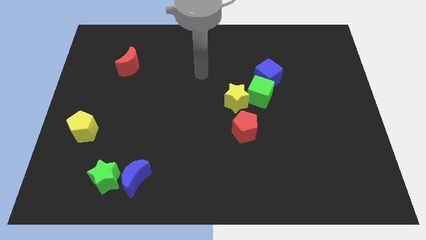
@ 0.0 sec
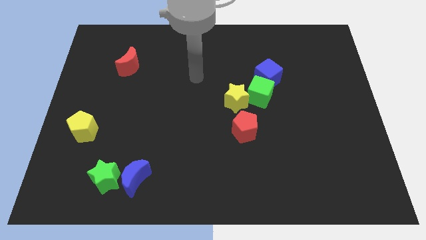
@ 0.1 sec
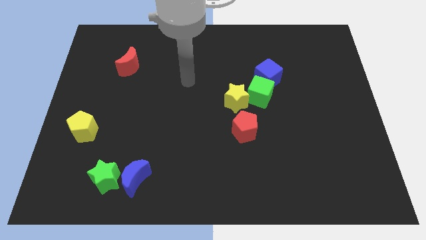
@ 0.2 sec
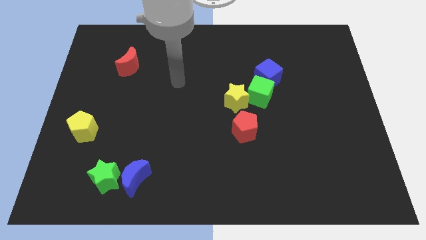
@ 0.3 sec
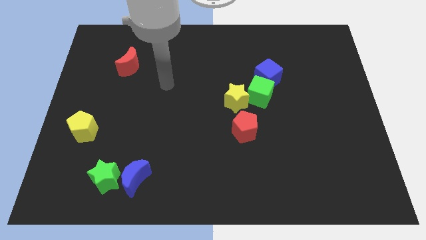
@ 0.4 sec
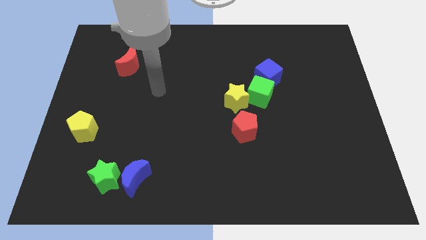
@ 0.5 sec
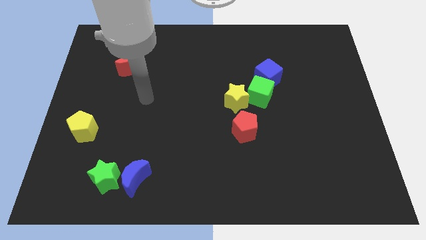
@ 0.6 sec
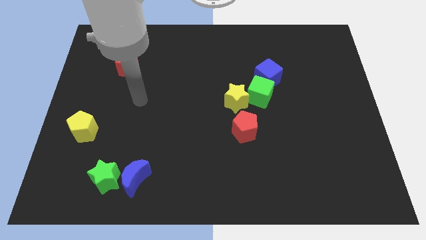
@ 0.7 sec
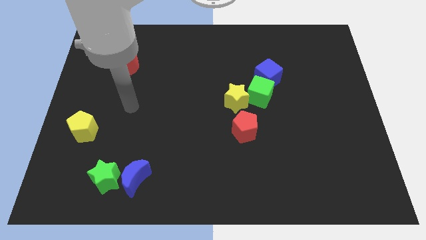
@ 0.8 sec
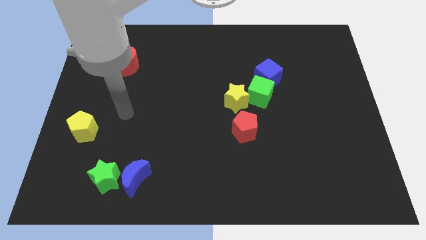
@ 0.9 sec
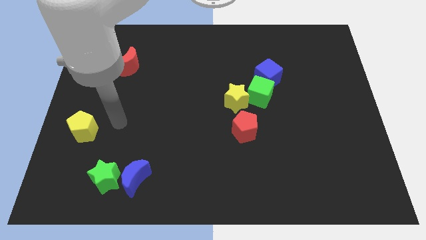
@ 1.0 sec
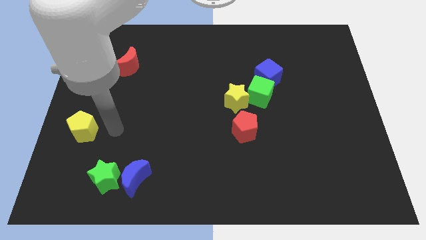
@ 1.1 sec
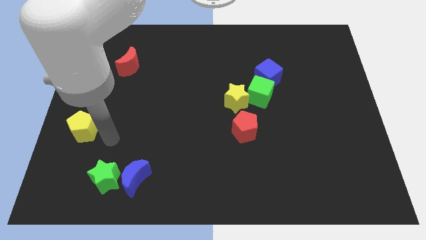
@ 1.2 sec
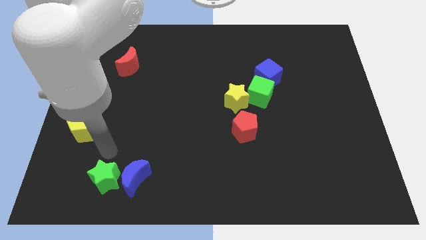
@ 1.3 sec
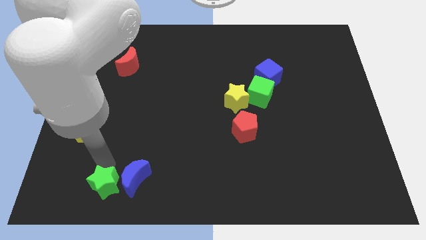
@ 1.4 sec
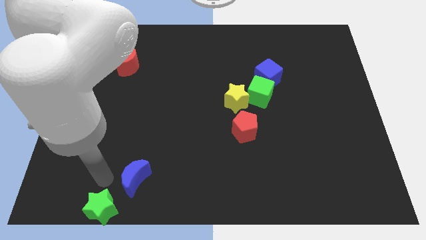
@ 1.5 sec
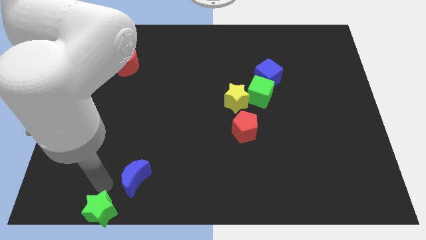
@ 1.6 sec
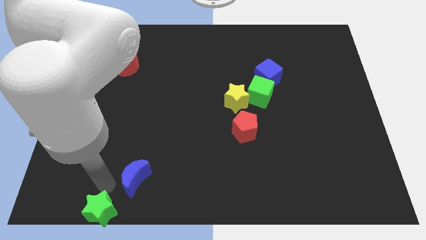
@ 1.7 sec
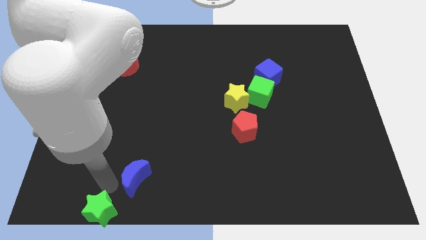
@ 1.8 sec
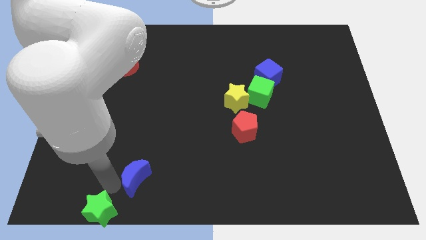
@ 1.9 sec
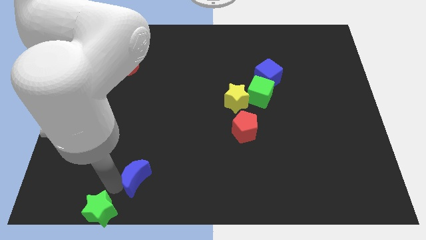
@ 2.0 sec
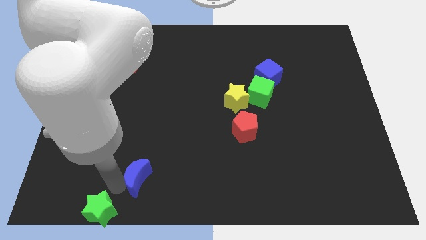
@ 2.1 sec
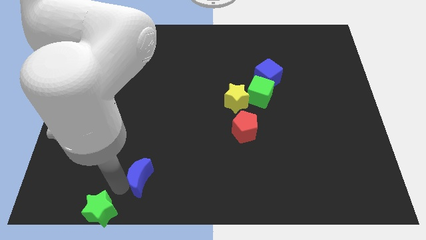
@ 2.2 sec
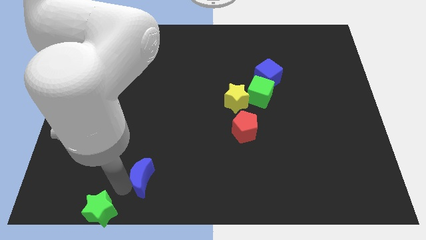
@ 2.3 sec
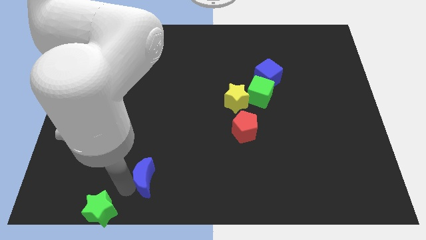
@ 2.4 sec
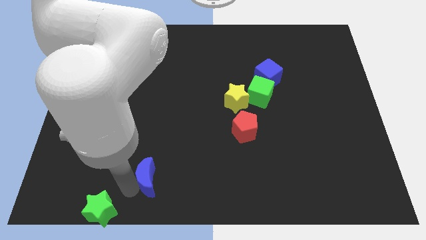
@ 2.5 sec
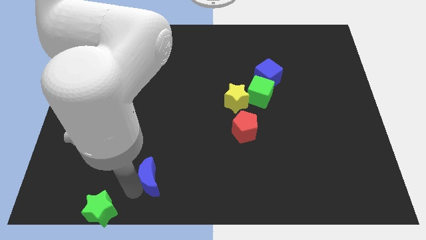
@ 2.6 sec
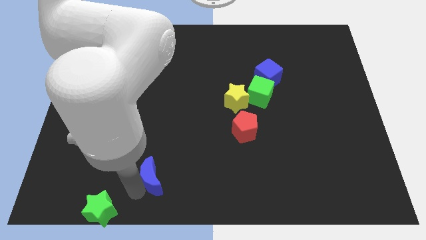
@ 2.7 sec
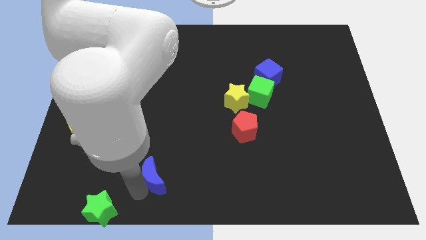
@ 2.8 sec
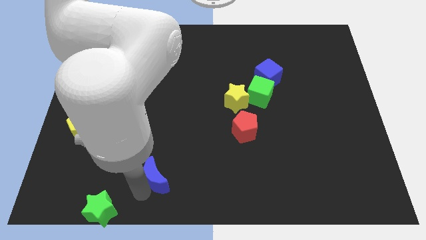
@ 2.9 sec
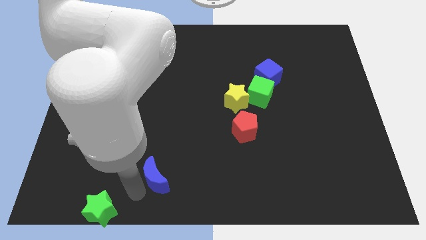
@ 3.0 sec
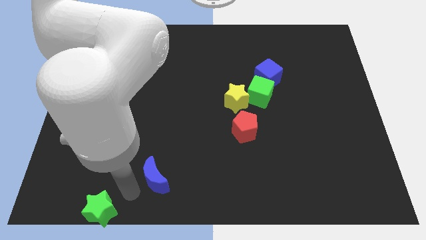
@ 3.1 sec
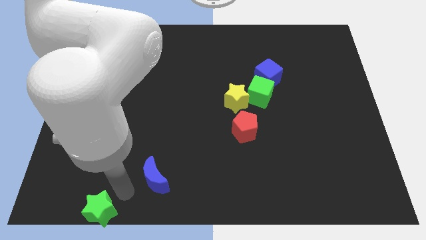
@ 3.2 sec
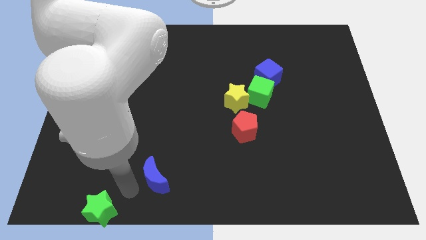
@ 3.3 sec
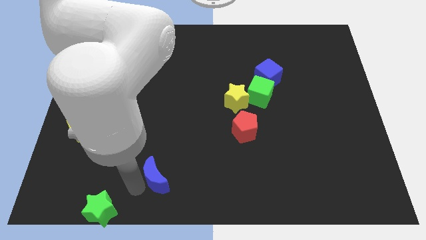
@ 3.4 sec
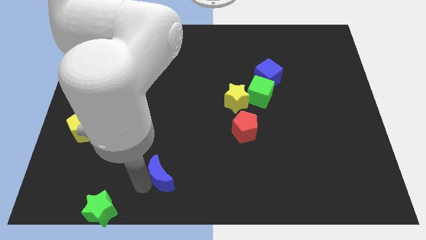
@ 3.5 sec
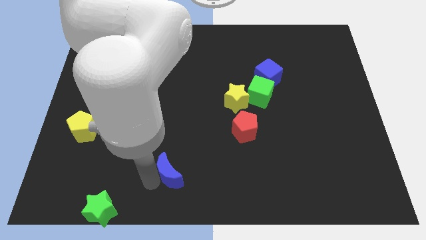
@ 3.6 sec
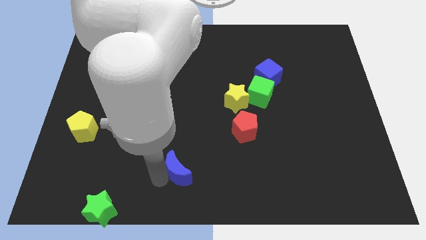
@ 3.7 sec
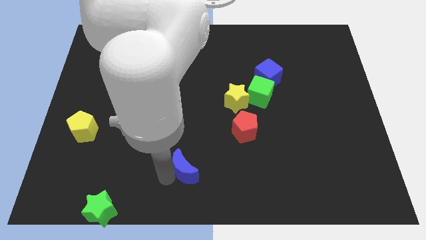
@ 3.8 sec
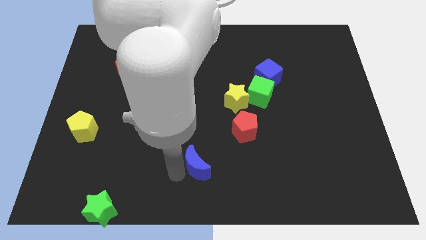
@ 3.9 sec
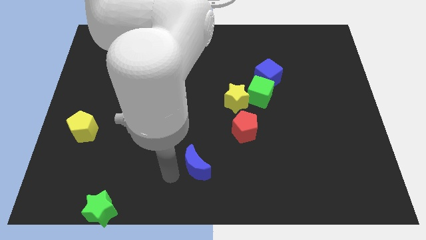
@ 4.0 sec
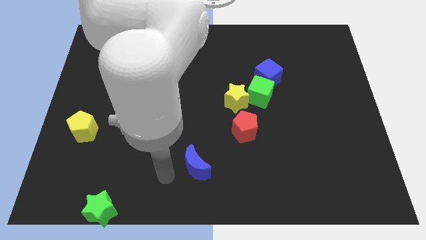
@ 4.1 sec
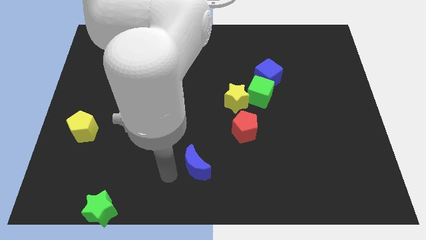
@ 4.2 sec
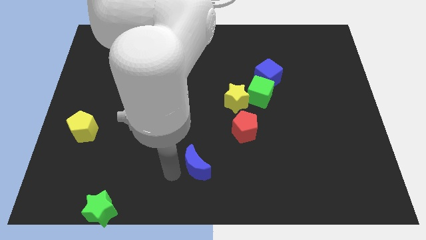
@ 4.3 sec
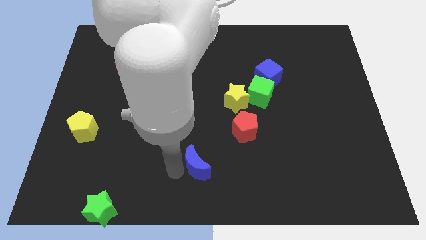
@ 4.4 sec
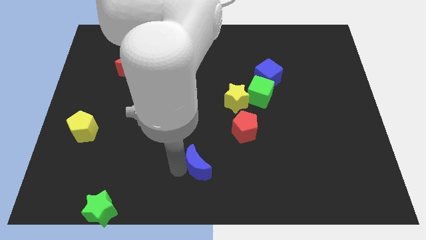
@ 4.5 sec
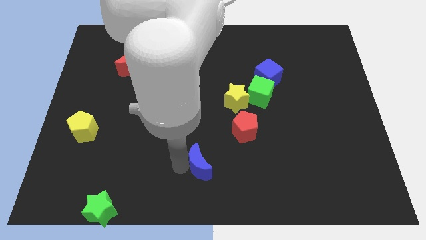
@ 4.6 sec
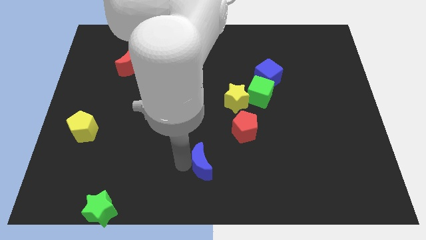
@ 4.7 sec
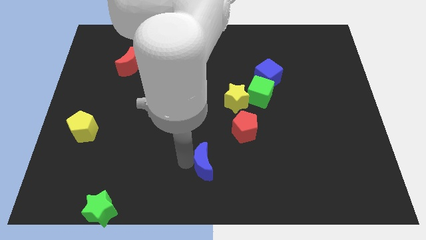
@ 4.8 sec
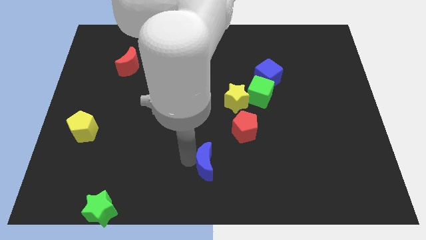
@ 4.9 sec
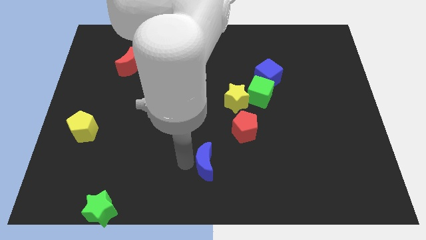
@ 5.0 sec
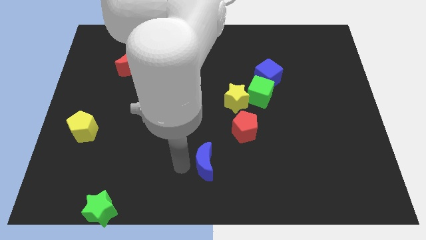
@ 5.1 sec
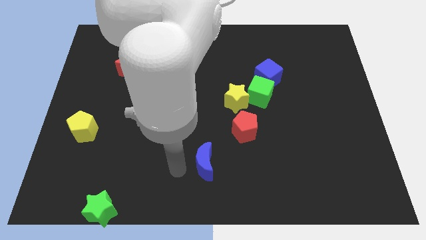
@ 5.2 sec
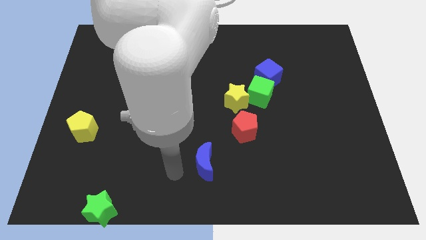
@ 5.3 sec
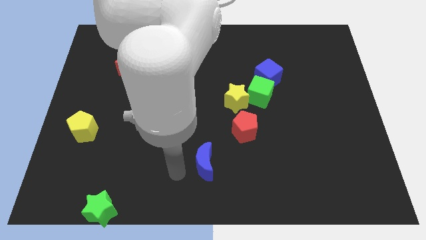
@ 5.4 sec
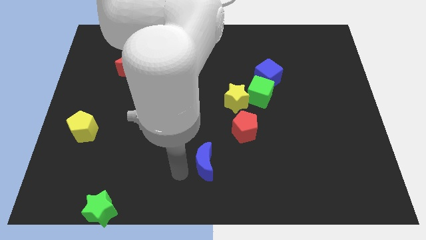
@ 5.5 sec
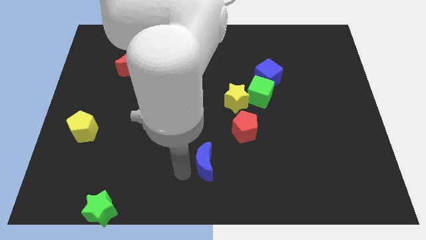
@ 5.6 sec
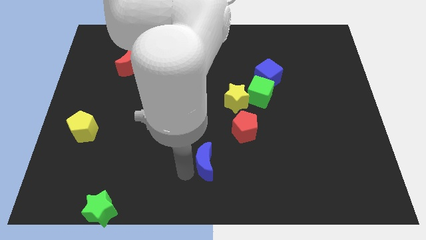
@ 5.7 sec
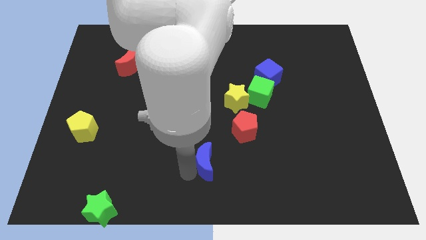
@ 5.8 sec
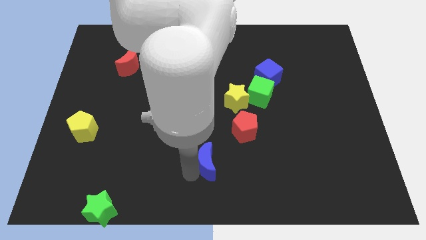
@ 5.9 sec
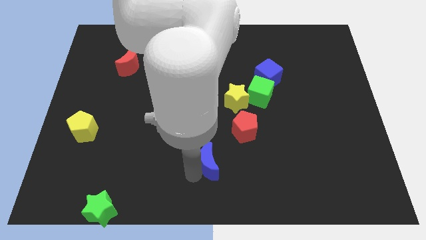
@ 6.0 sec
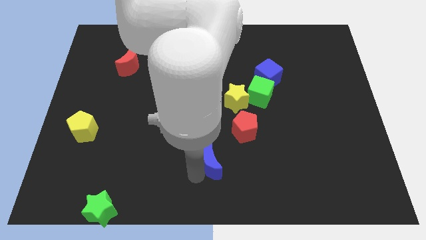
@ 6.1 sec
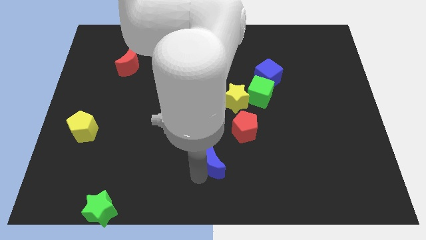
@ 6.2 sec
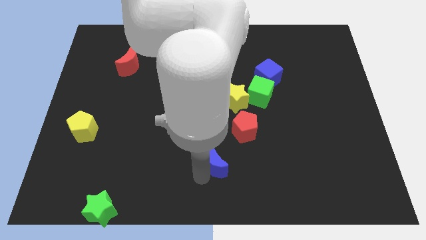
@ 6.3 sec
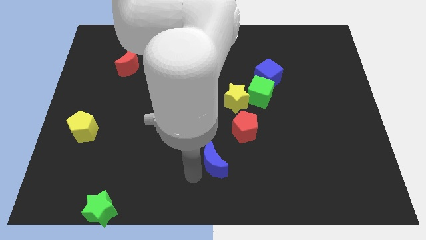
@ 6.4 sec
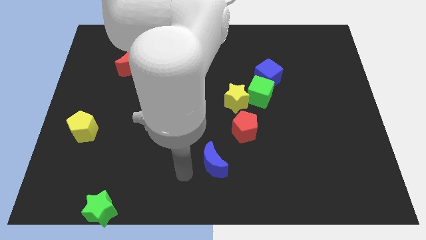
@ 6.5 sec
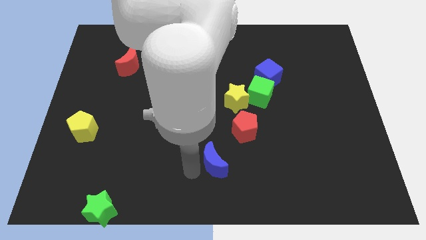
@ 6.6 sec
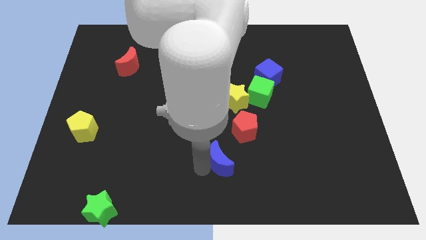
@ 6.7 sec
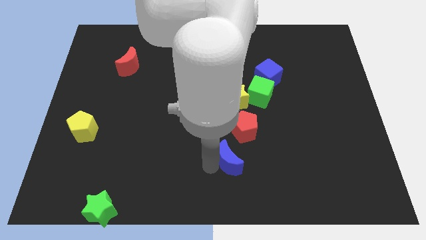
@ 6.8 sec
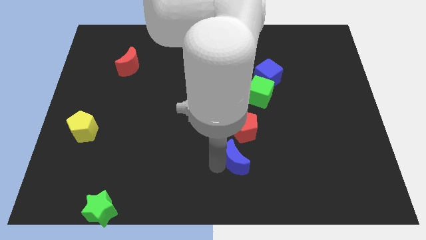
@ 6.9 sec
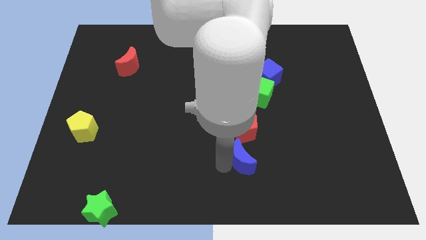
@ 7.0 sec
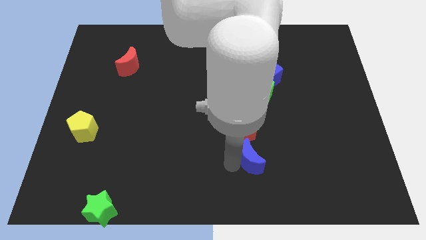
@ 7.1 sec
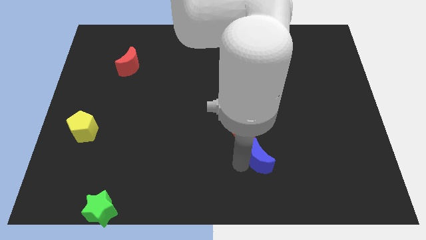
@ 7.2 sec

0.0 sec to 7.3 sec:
slide the blue moon to the bottom right side of the red pentagon
